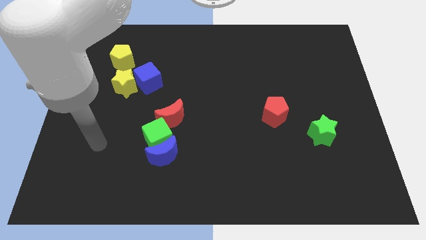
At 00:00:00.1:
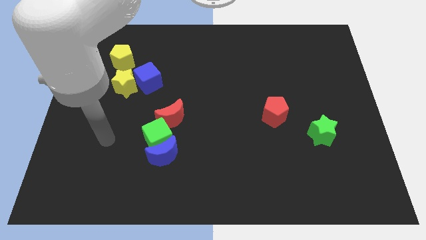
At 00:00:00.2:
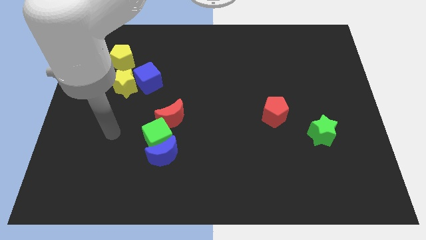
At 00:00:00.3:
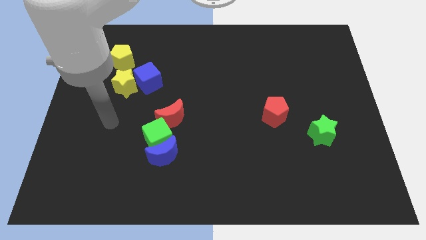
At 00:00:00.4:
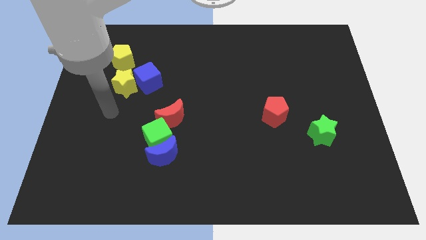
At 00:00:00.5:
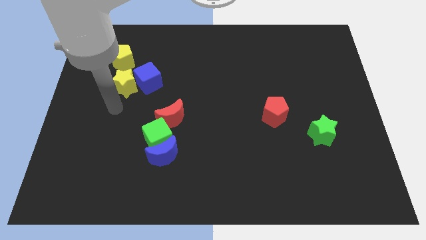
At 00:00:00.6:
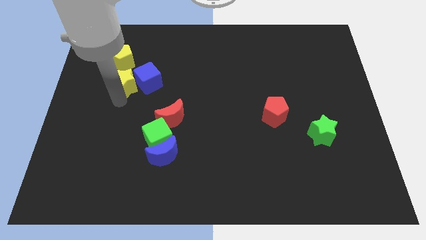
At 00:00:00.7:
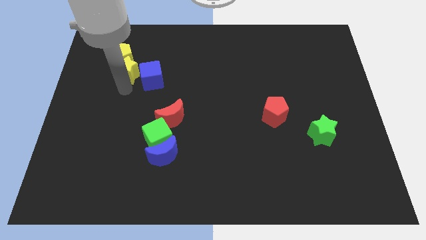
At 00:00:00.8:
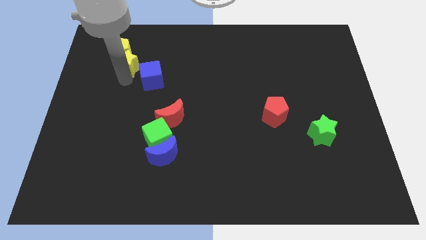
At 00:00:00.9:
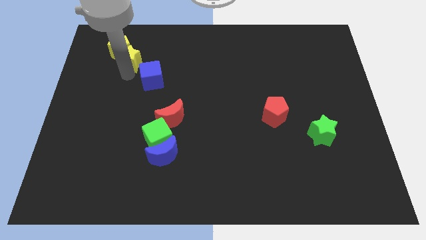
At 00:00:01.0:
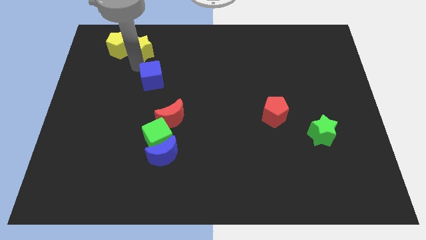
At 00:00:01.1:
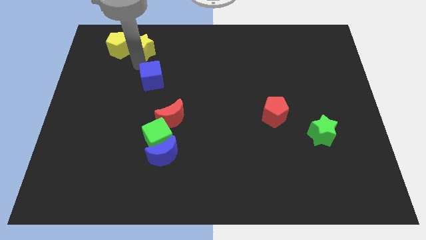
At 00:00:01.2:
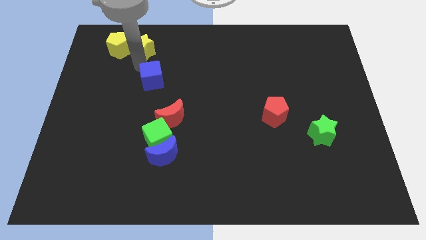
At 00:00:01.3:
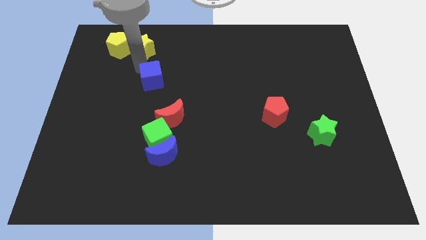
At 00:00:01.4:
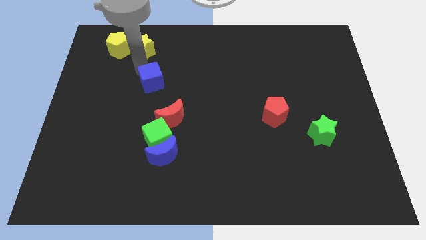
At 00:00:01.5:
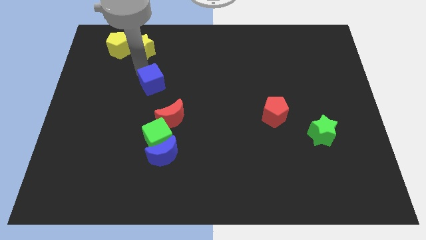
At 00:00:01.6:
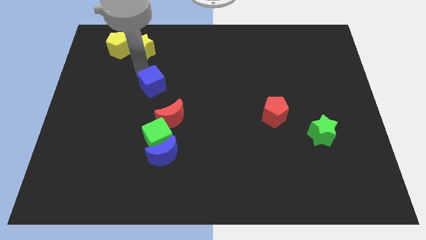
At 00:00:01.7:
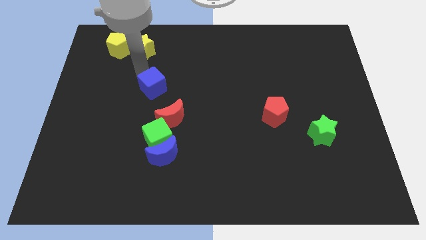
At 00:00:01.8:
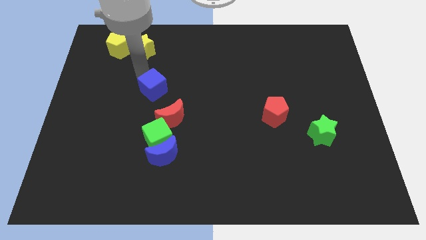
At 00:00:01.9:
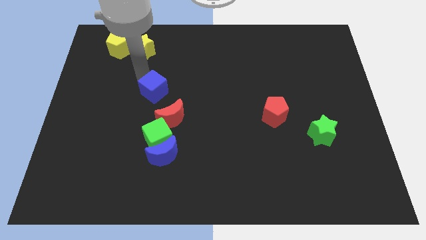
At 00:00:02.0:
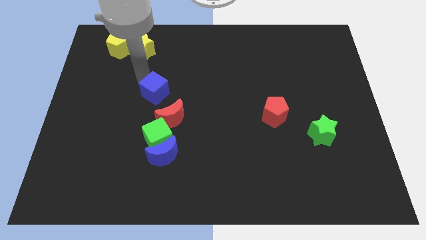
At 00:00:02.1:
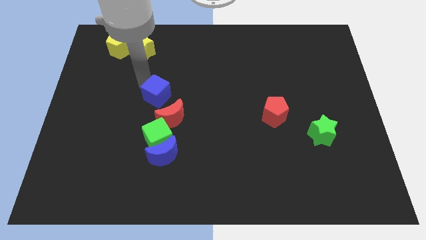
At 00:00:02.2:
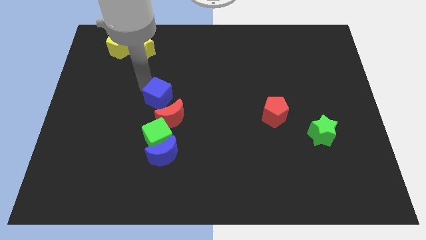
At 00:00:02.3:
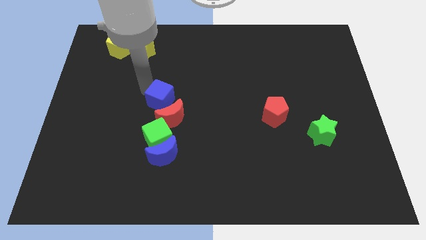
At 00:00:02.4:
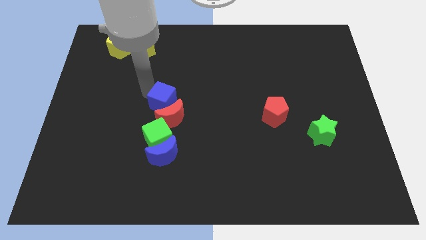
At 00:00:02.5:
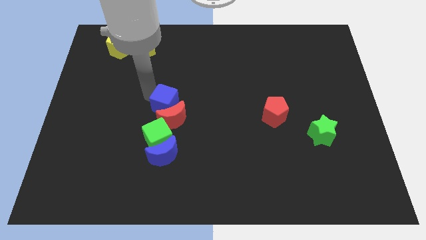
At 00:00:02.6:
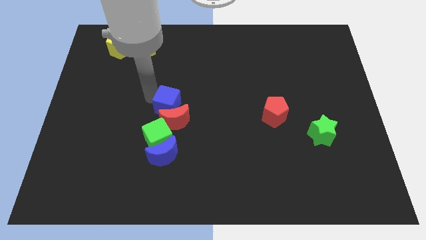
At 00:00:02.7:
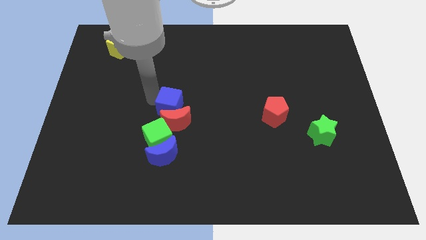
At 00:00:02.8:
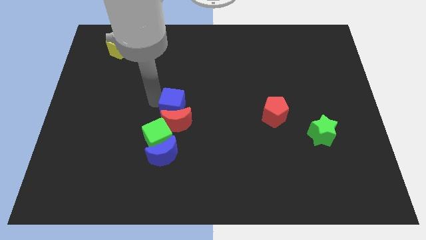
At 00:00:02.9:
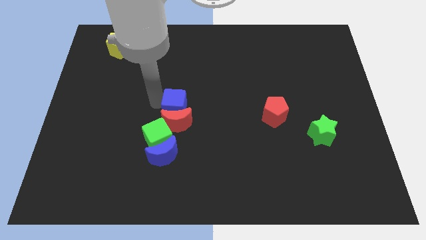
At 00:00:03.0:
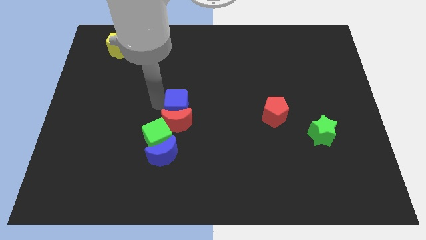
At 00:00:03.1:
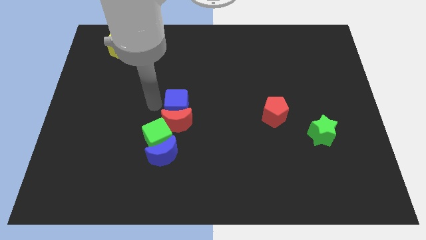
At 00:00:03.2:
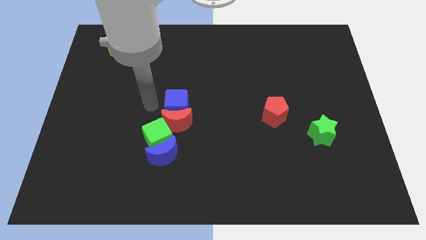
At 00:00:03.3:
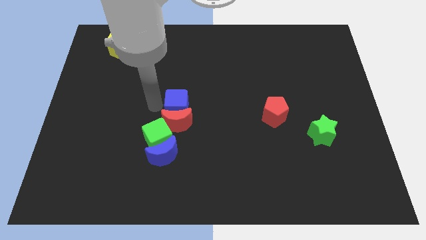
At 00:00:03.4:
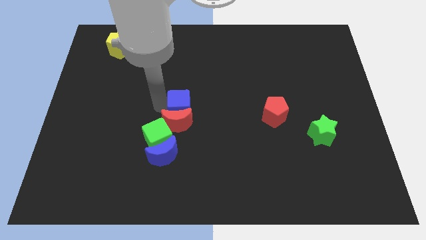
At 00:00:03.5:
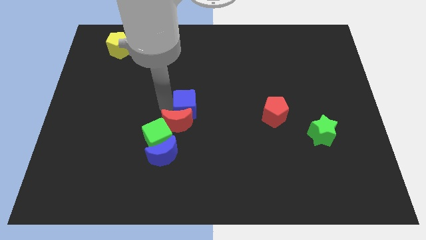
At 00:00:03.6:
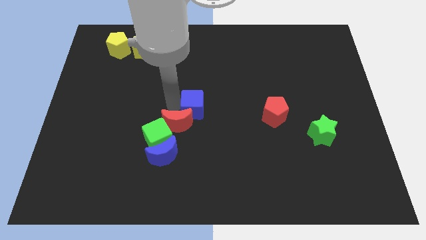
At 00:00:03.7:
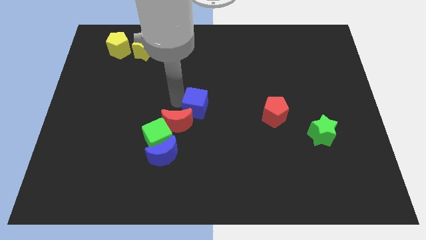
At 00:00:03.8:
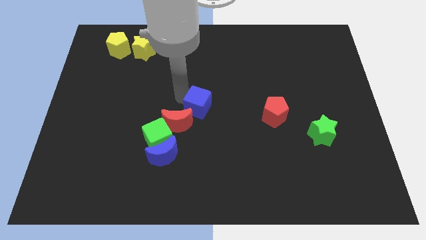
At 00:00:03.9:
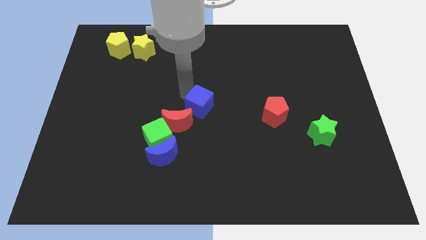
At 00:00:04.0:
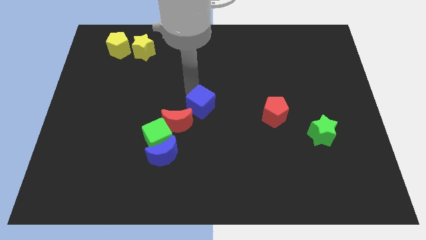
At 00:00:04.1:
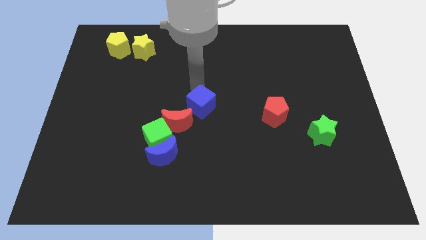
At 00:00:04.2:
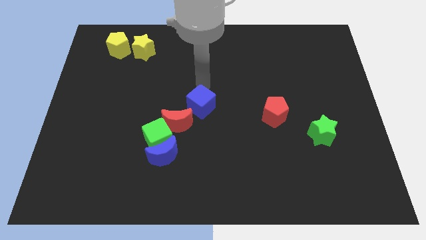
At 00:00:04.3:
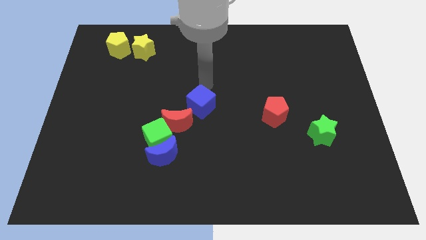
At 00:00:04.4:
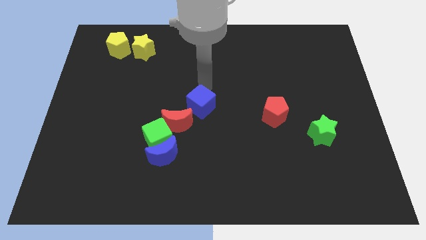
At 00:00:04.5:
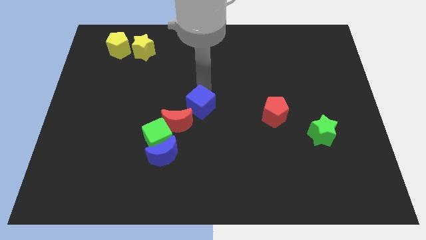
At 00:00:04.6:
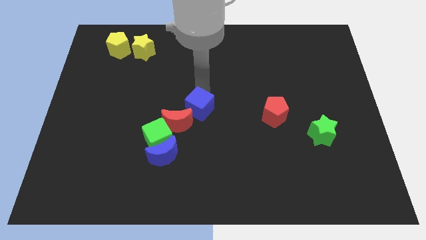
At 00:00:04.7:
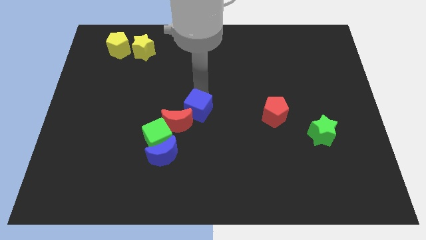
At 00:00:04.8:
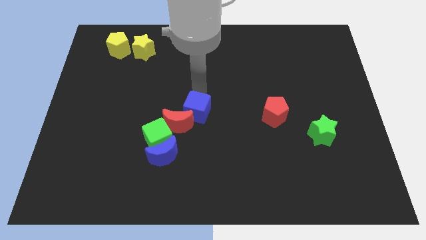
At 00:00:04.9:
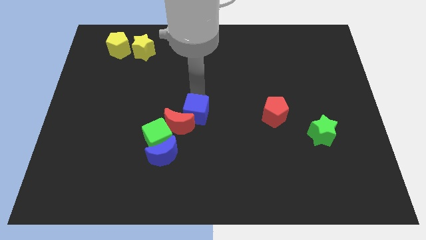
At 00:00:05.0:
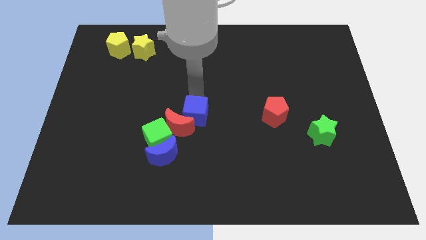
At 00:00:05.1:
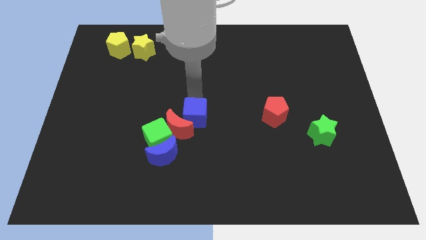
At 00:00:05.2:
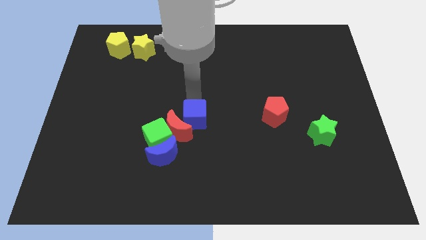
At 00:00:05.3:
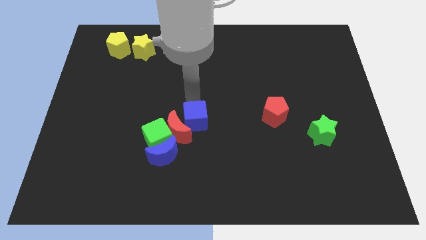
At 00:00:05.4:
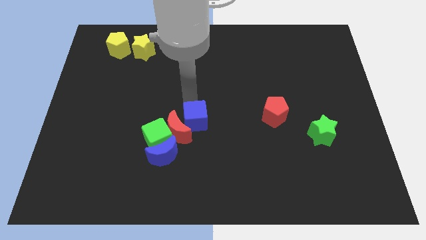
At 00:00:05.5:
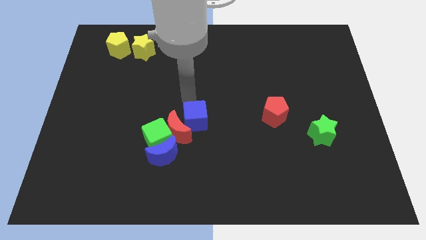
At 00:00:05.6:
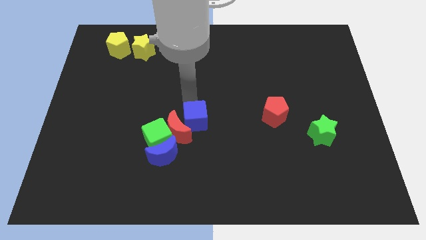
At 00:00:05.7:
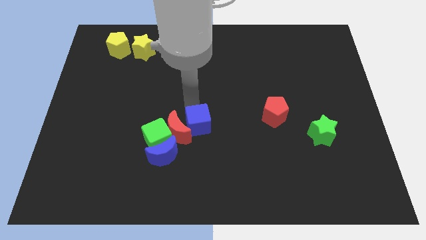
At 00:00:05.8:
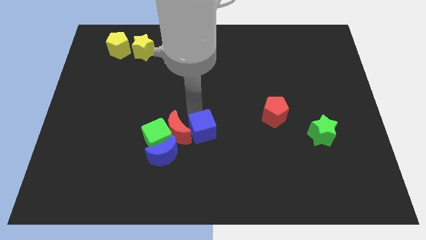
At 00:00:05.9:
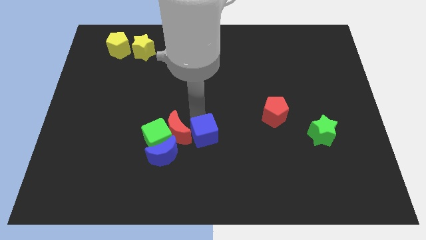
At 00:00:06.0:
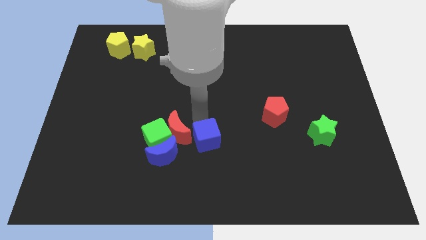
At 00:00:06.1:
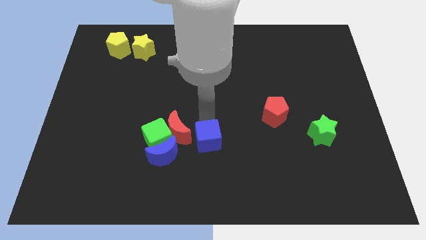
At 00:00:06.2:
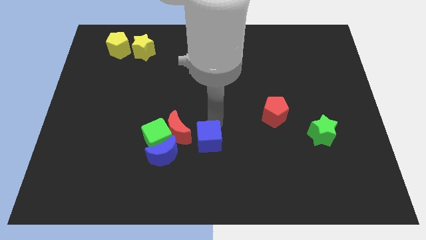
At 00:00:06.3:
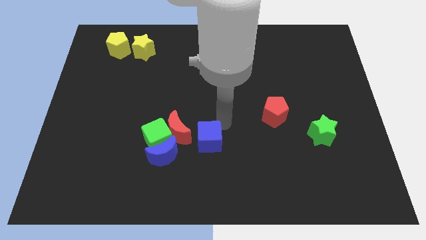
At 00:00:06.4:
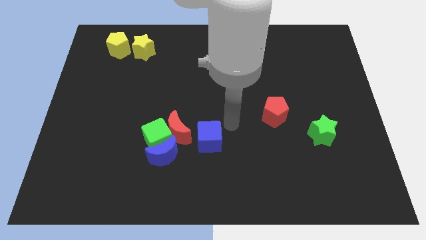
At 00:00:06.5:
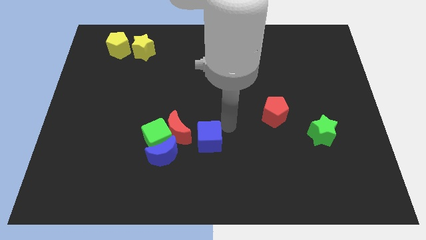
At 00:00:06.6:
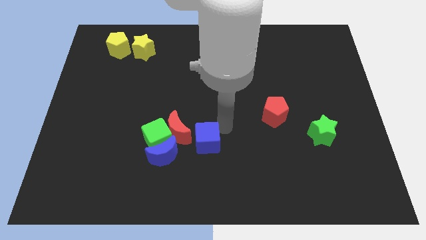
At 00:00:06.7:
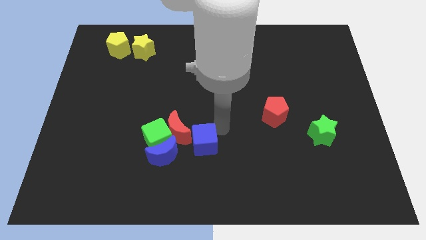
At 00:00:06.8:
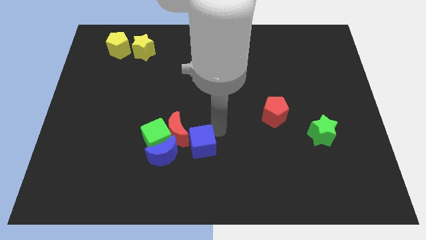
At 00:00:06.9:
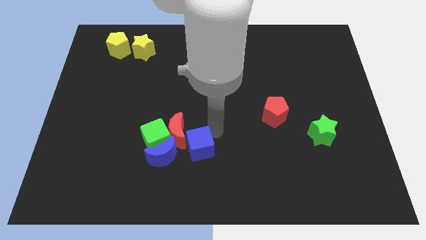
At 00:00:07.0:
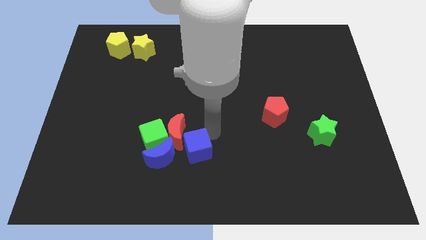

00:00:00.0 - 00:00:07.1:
push the blue cube to the bottom right side of the green cube
